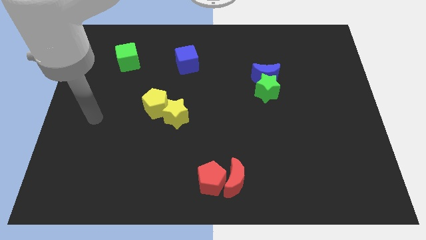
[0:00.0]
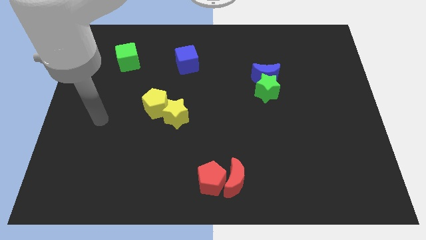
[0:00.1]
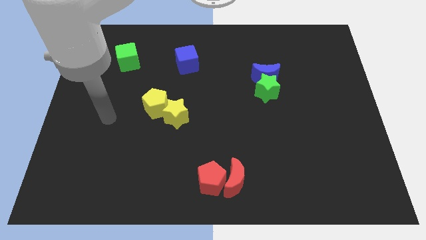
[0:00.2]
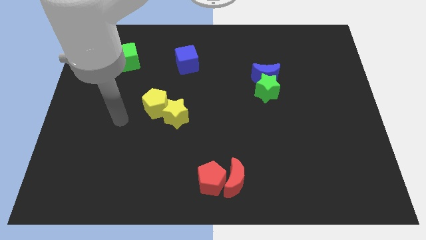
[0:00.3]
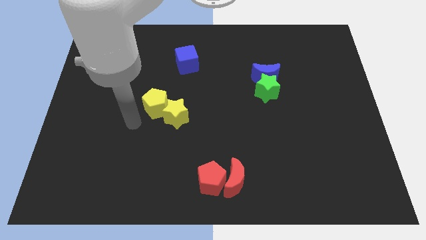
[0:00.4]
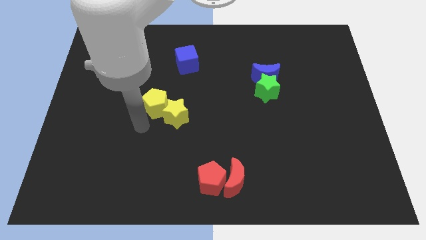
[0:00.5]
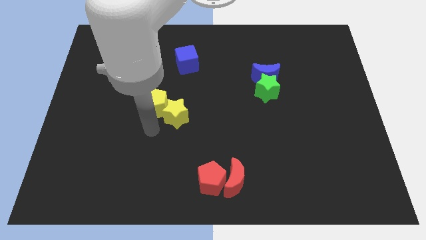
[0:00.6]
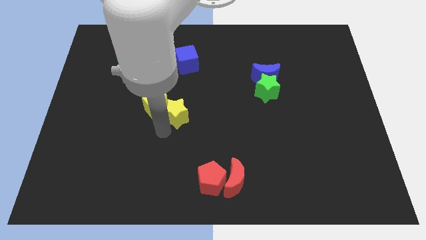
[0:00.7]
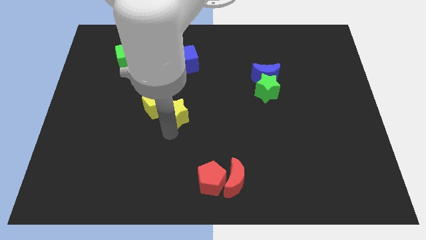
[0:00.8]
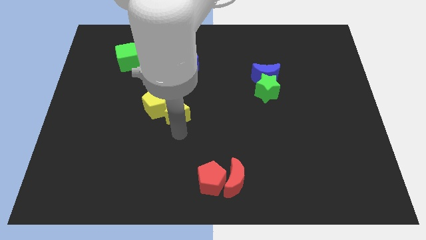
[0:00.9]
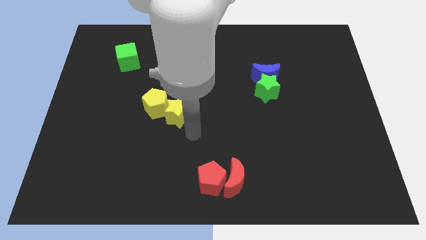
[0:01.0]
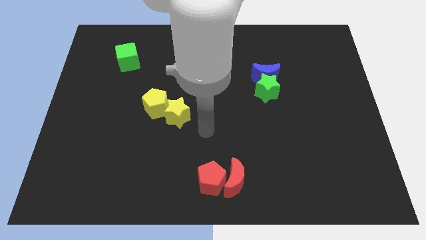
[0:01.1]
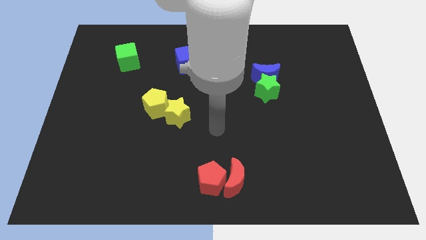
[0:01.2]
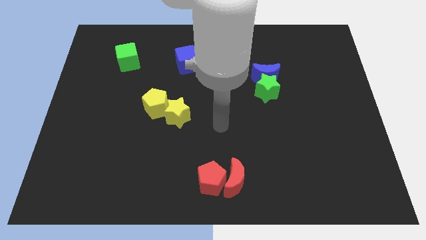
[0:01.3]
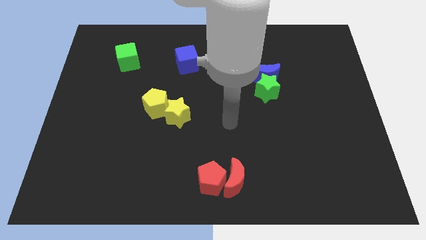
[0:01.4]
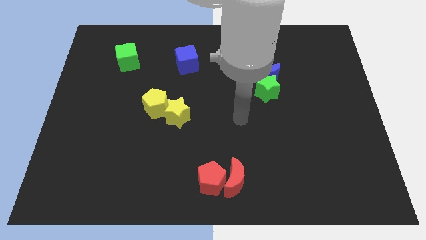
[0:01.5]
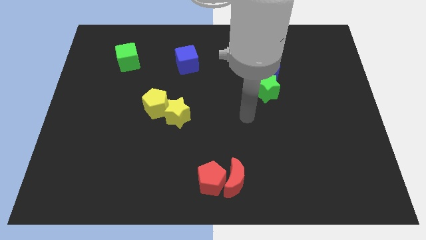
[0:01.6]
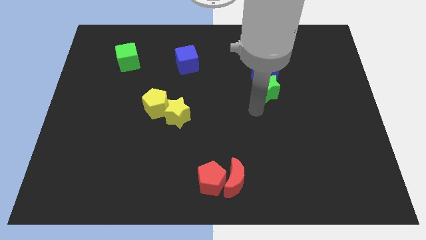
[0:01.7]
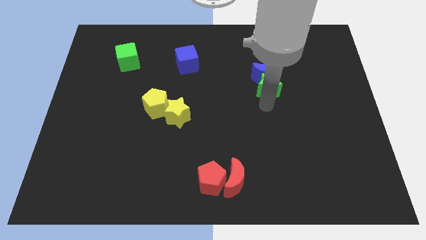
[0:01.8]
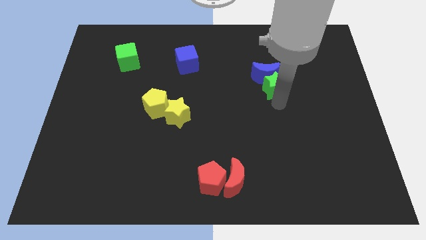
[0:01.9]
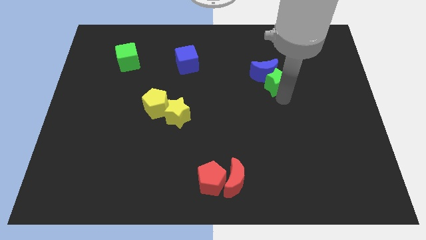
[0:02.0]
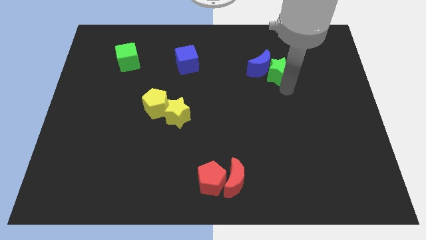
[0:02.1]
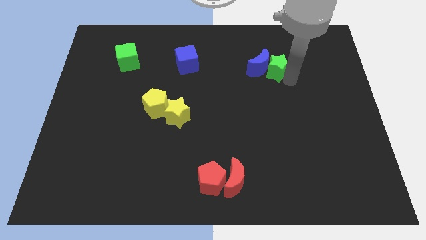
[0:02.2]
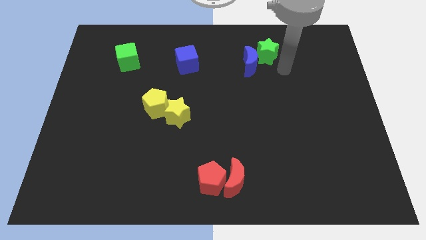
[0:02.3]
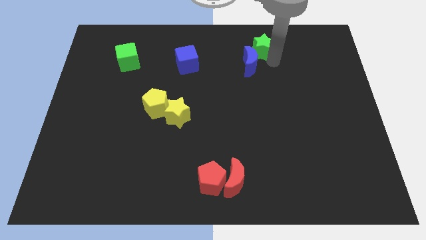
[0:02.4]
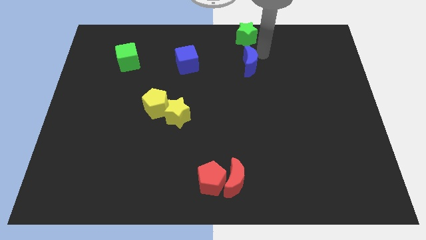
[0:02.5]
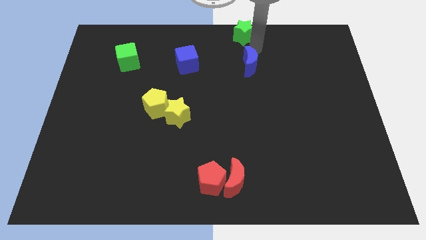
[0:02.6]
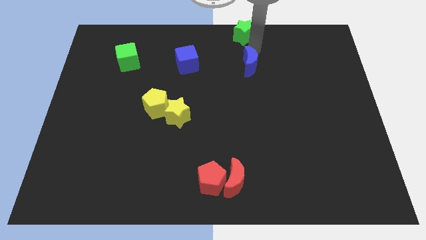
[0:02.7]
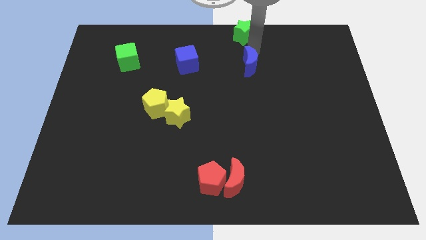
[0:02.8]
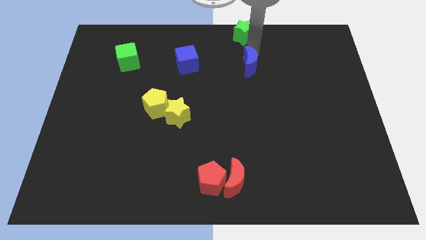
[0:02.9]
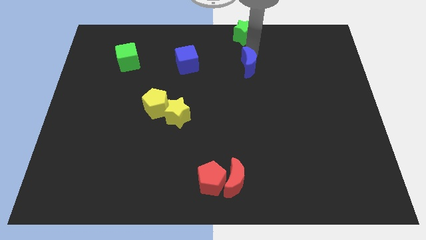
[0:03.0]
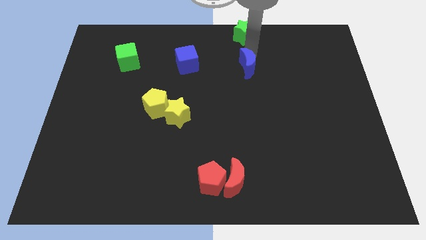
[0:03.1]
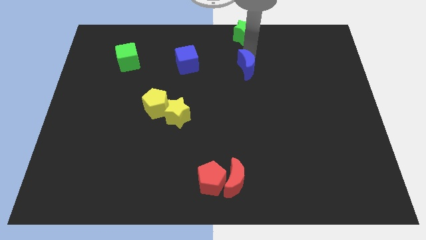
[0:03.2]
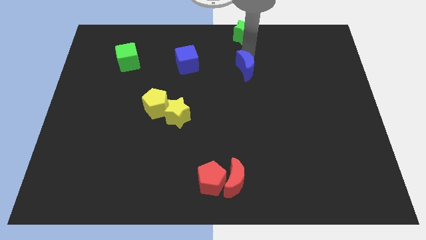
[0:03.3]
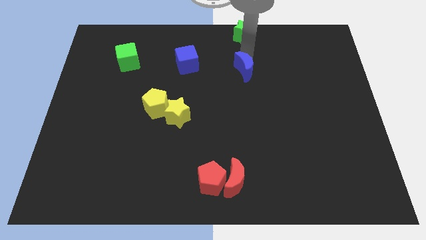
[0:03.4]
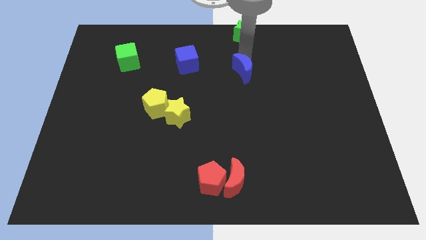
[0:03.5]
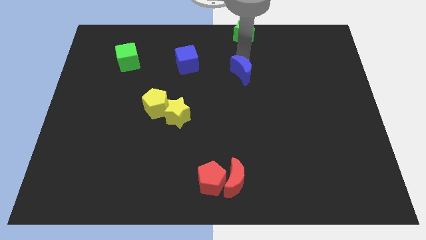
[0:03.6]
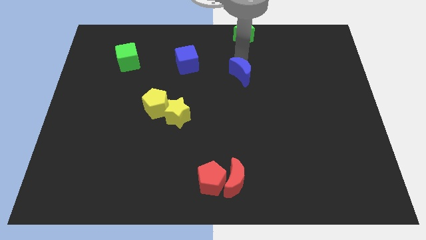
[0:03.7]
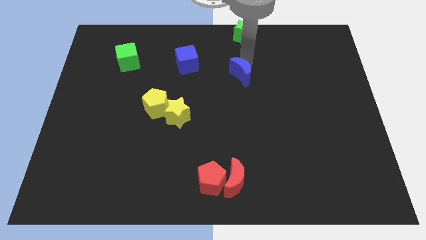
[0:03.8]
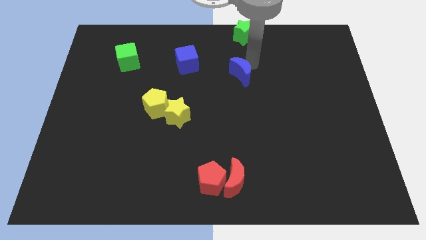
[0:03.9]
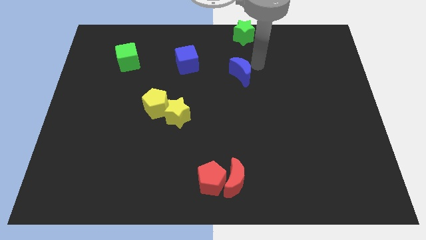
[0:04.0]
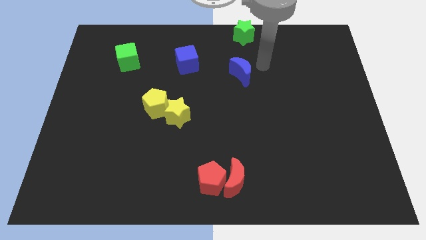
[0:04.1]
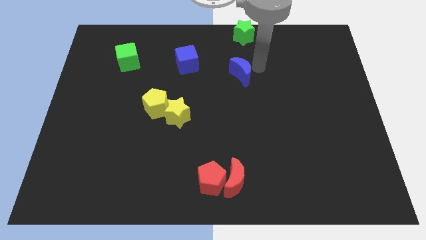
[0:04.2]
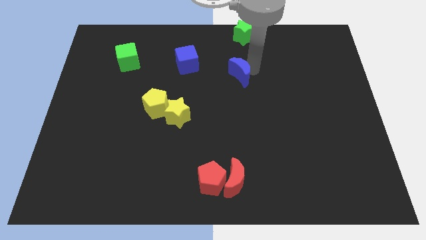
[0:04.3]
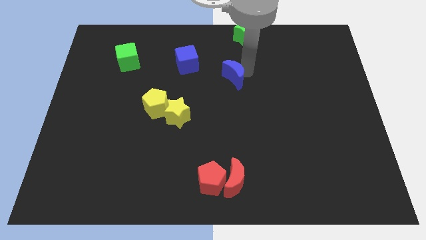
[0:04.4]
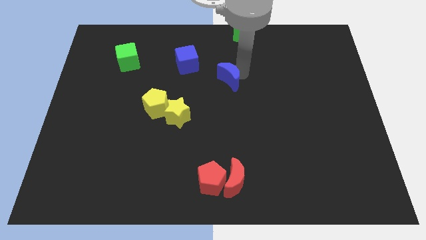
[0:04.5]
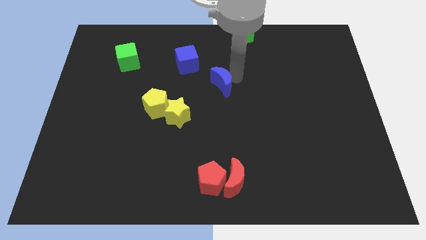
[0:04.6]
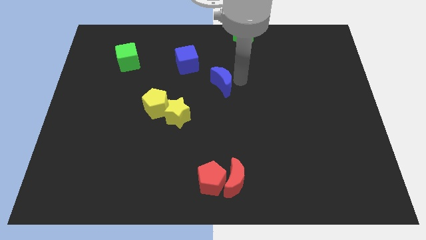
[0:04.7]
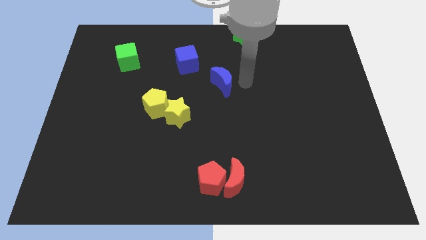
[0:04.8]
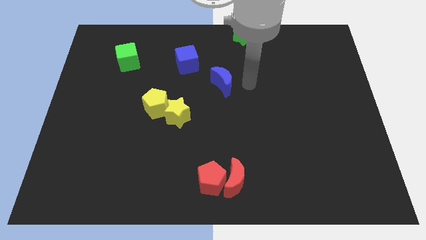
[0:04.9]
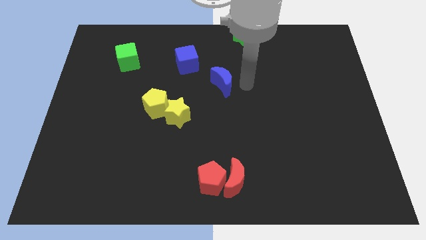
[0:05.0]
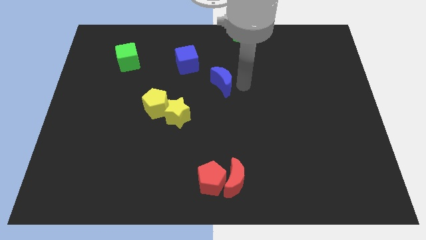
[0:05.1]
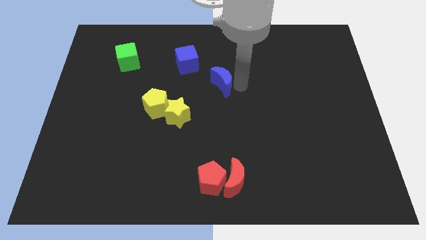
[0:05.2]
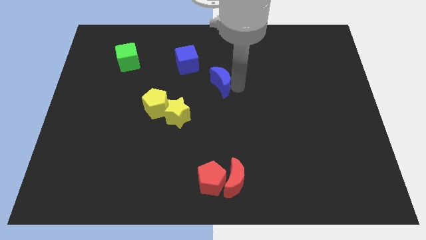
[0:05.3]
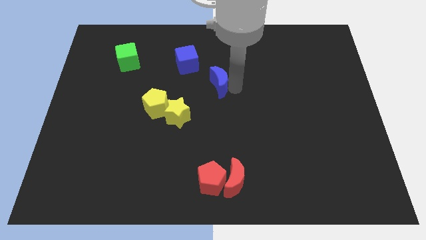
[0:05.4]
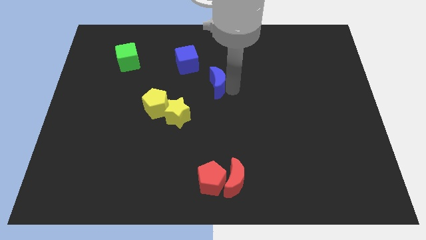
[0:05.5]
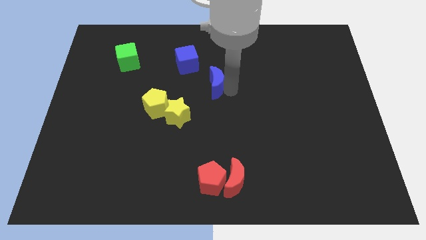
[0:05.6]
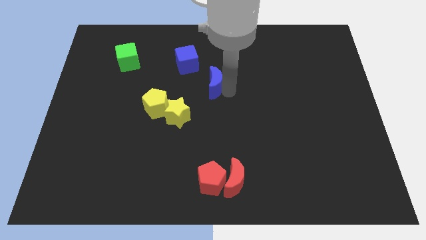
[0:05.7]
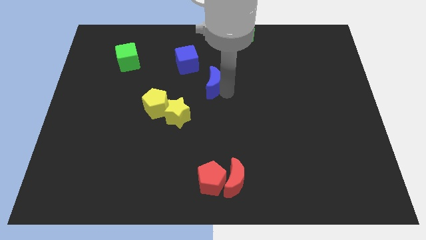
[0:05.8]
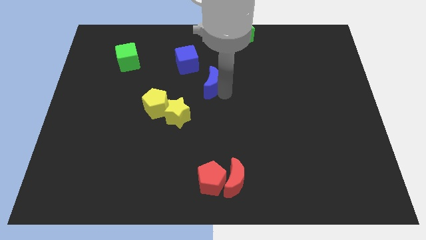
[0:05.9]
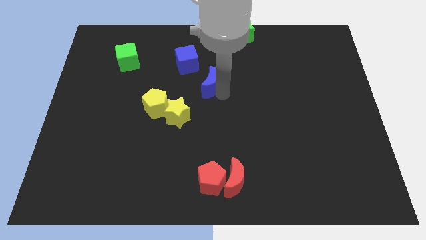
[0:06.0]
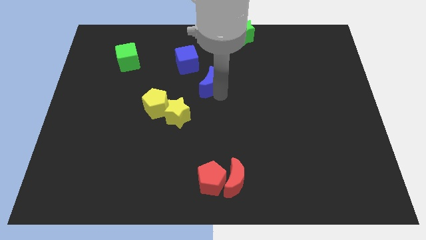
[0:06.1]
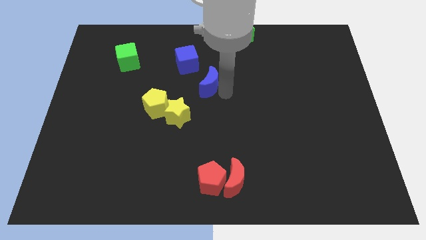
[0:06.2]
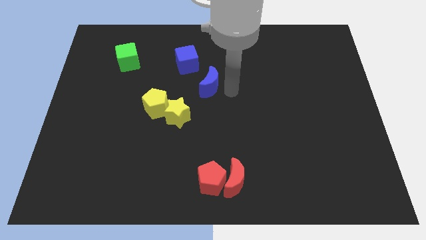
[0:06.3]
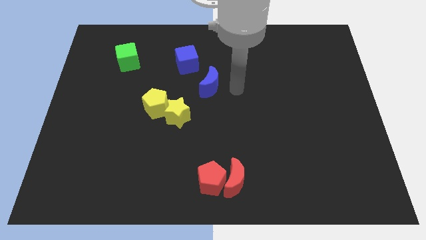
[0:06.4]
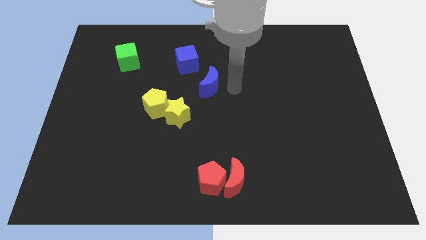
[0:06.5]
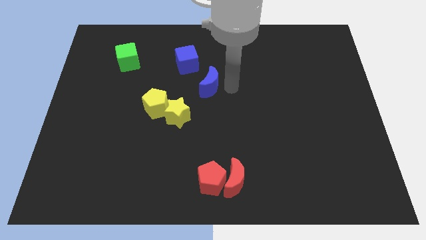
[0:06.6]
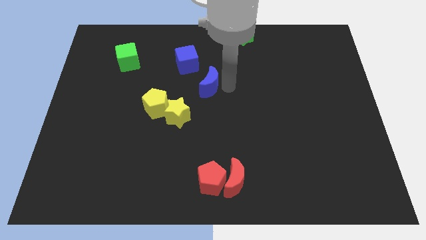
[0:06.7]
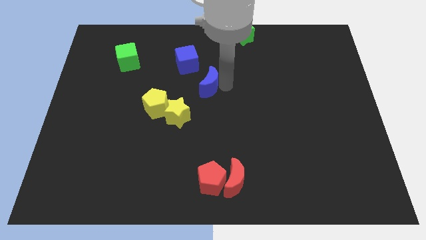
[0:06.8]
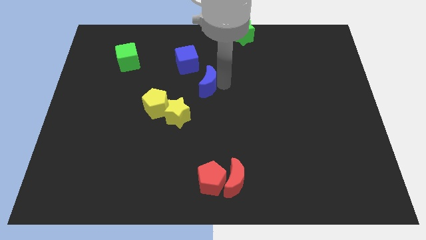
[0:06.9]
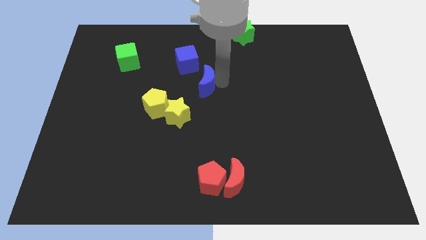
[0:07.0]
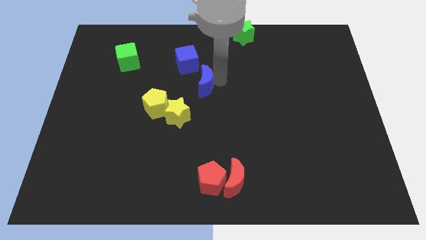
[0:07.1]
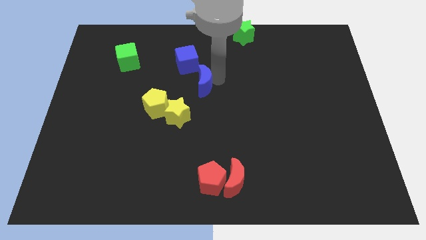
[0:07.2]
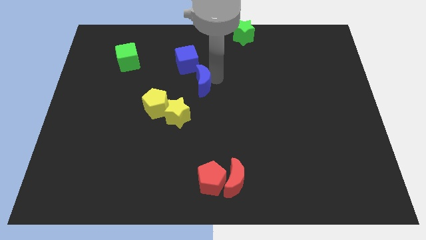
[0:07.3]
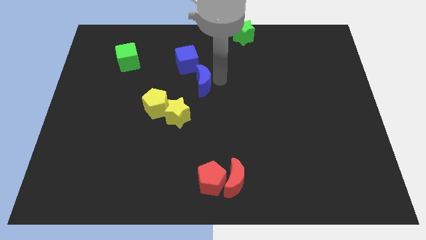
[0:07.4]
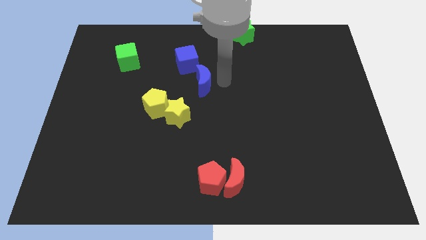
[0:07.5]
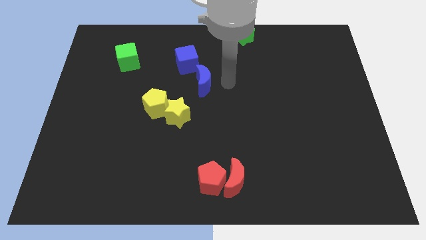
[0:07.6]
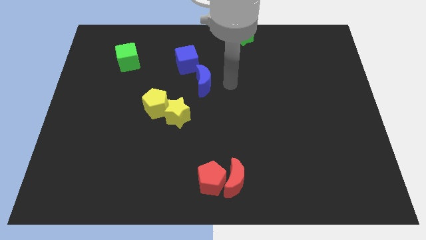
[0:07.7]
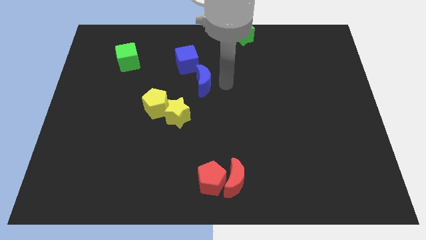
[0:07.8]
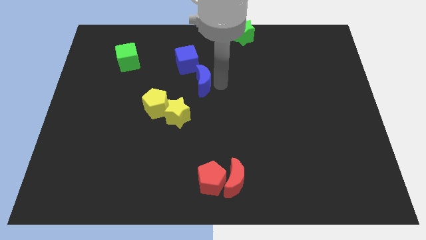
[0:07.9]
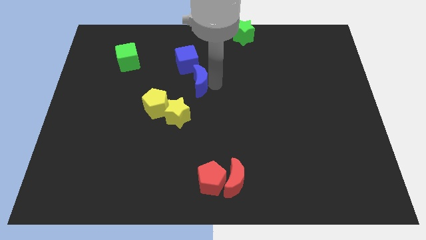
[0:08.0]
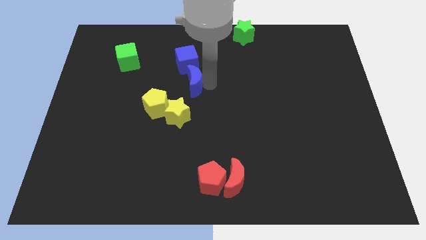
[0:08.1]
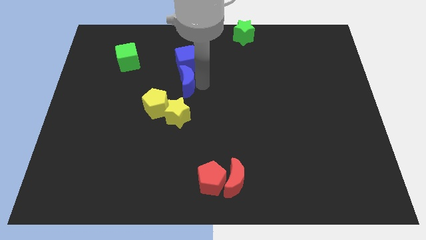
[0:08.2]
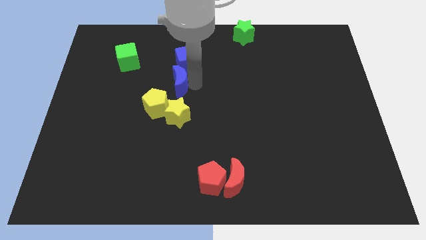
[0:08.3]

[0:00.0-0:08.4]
push the blue moon to the left
